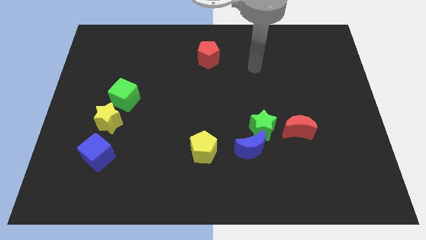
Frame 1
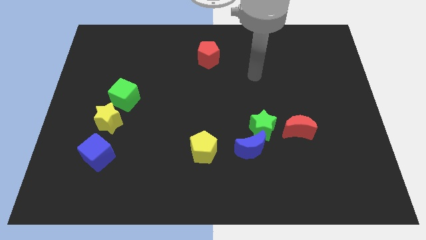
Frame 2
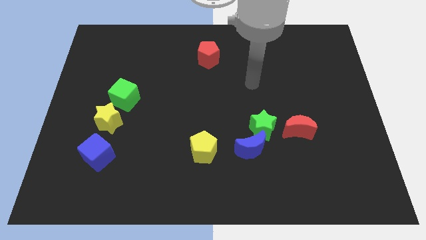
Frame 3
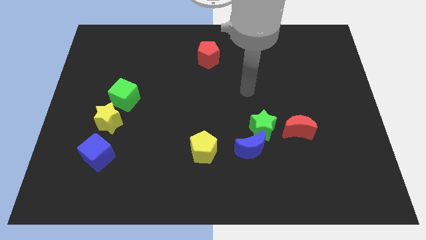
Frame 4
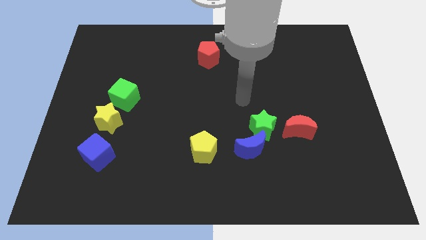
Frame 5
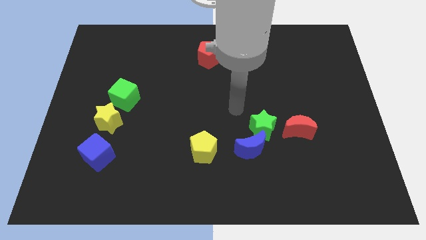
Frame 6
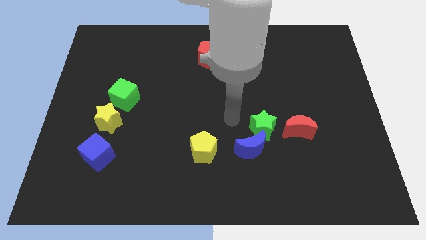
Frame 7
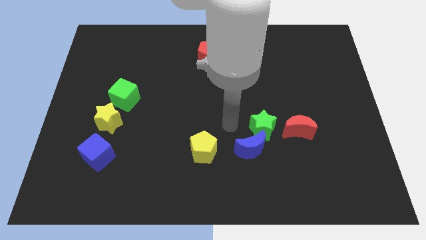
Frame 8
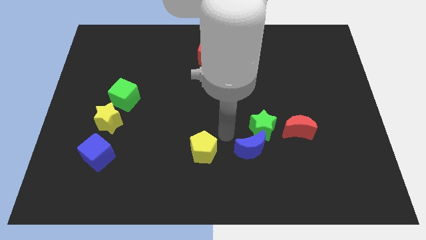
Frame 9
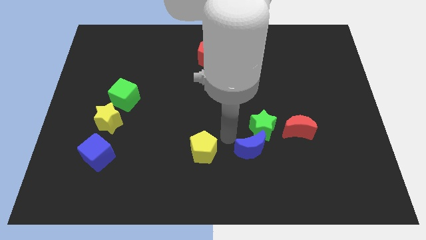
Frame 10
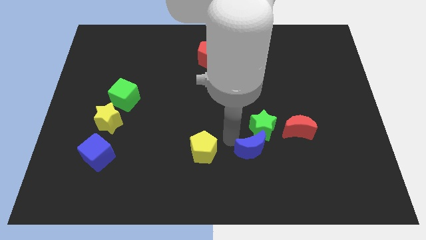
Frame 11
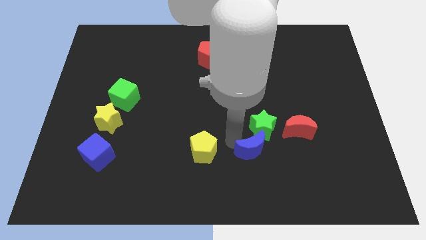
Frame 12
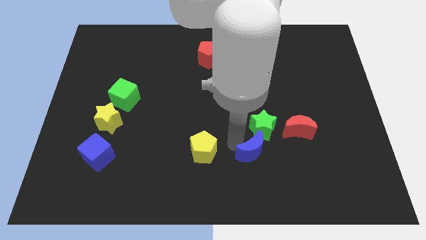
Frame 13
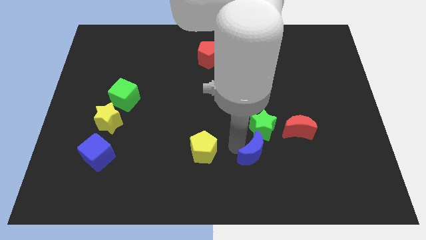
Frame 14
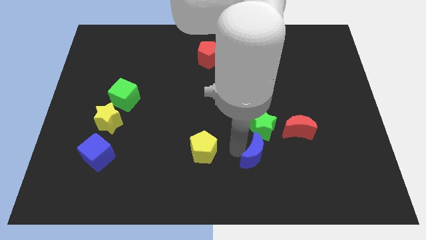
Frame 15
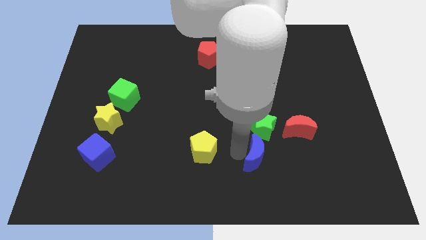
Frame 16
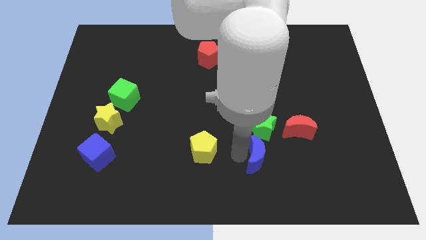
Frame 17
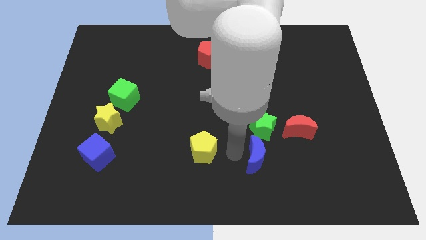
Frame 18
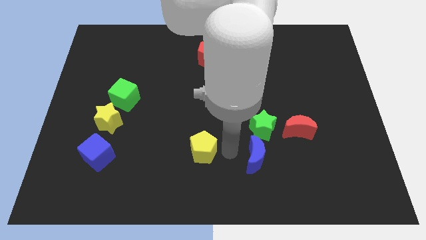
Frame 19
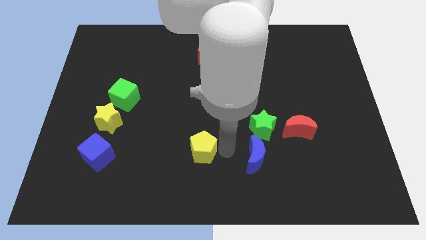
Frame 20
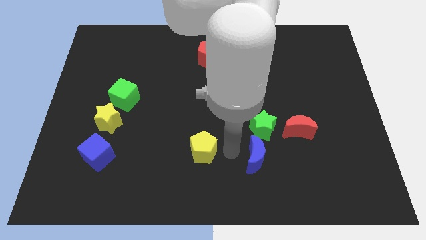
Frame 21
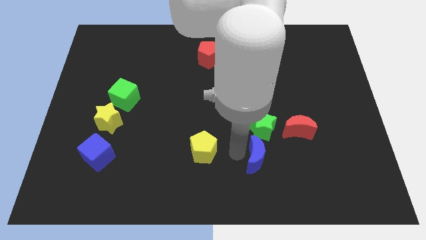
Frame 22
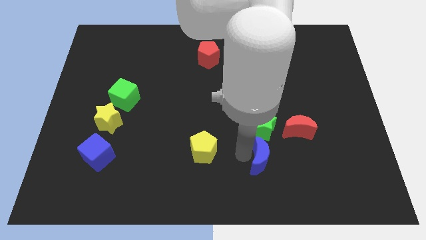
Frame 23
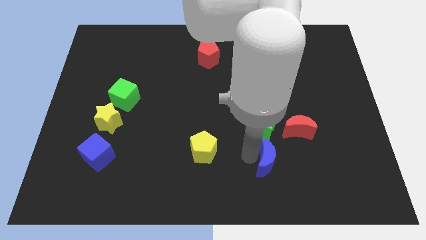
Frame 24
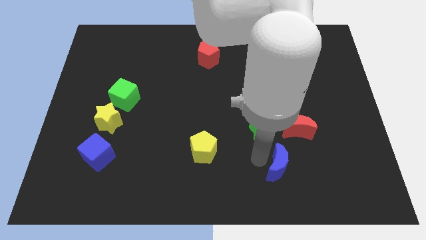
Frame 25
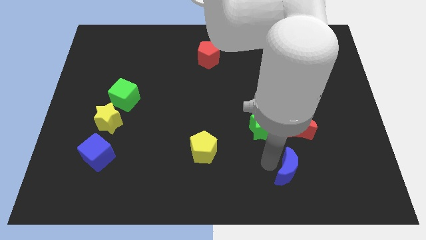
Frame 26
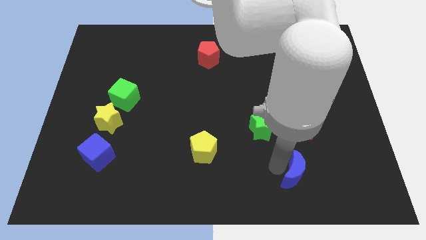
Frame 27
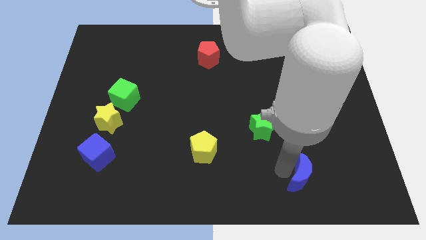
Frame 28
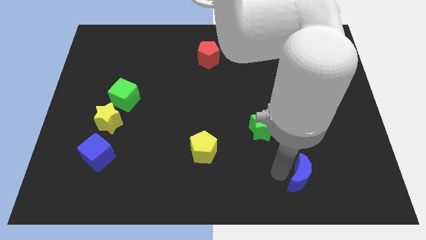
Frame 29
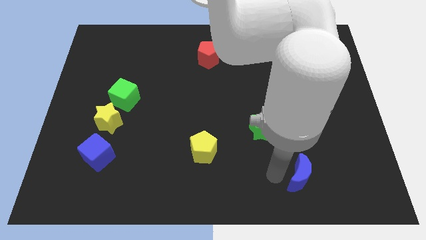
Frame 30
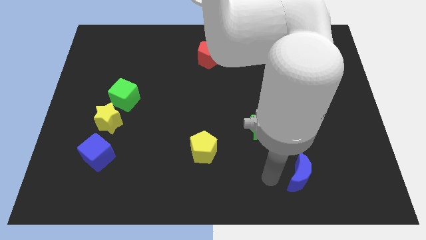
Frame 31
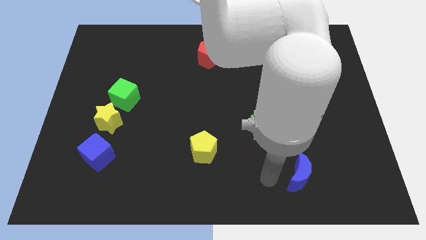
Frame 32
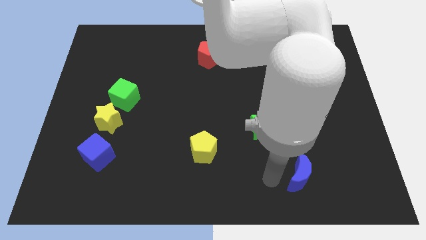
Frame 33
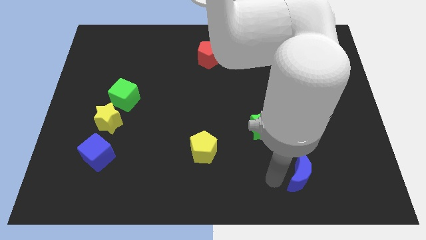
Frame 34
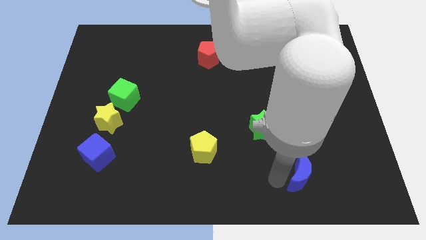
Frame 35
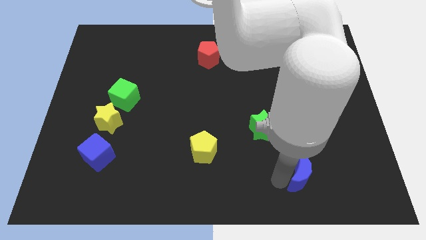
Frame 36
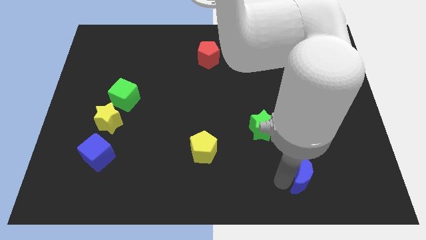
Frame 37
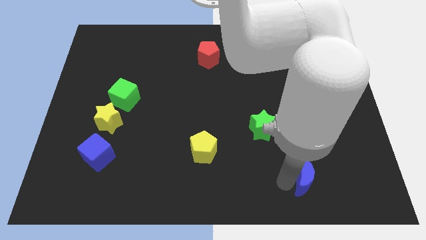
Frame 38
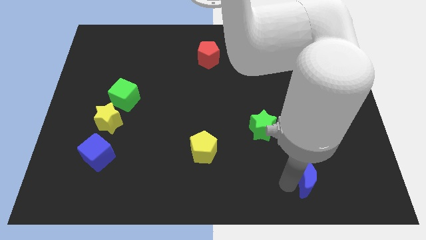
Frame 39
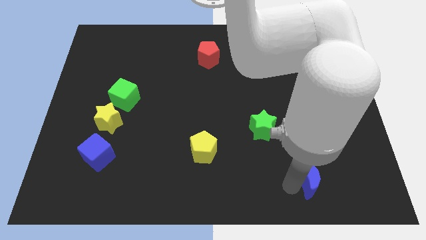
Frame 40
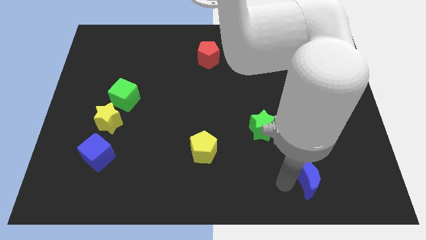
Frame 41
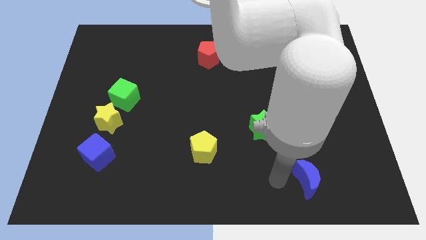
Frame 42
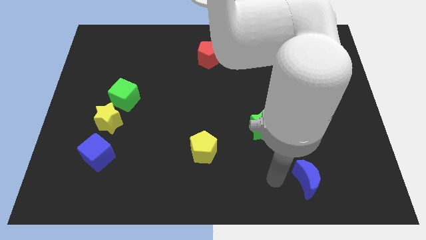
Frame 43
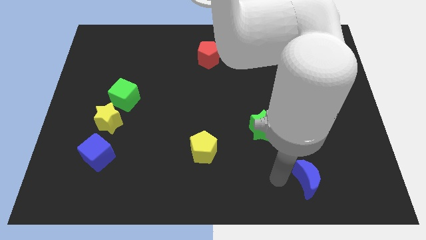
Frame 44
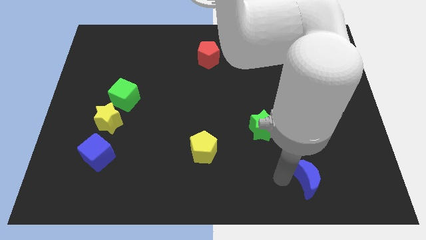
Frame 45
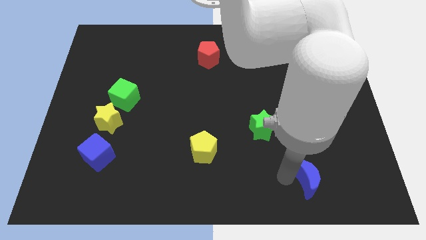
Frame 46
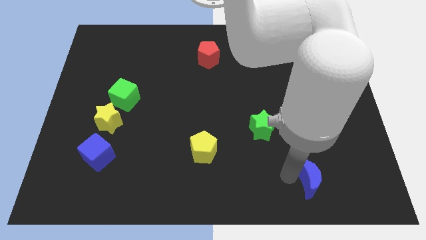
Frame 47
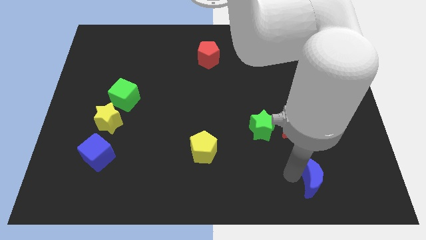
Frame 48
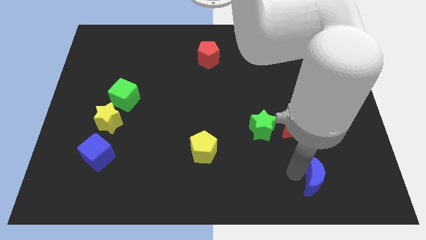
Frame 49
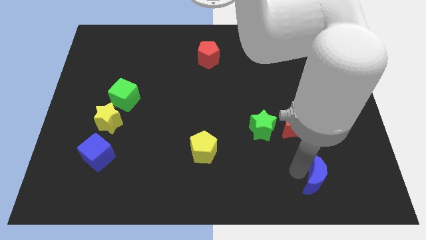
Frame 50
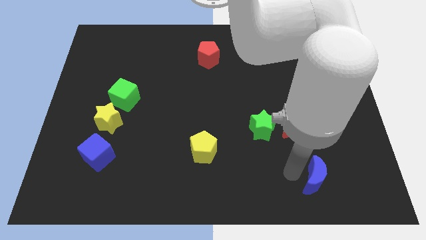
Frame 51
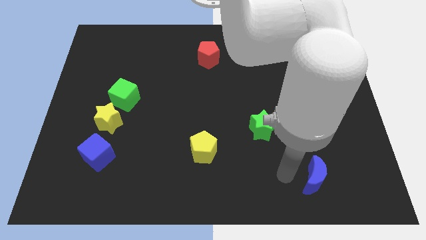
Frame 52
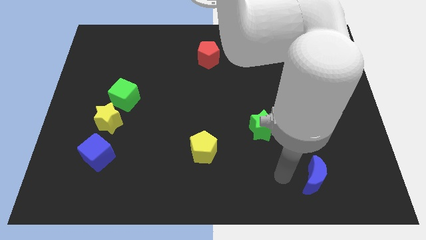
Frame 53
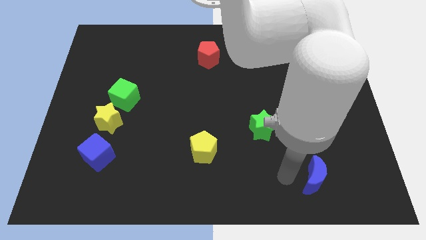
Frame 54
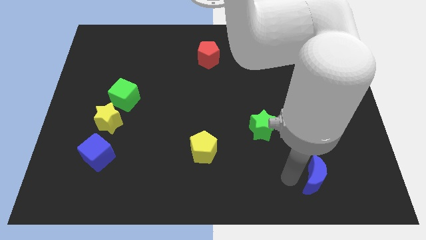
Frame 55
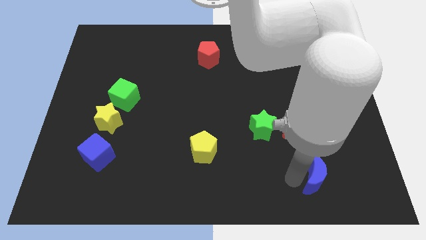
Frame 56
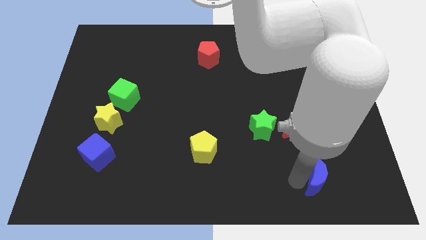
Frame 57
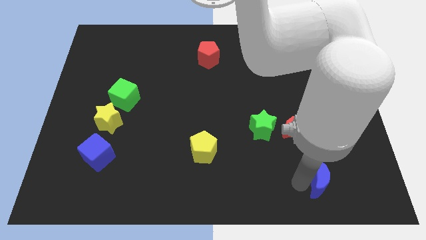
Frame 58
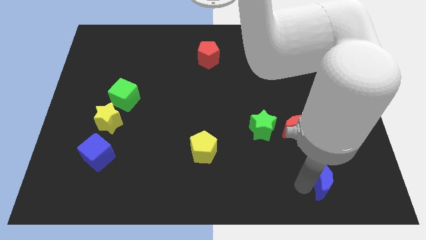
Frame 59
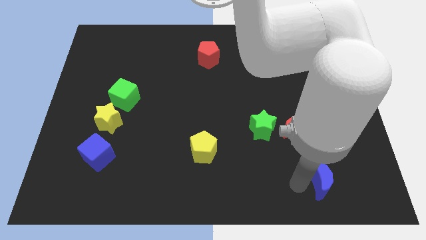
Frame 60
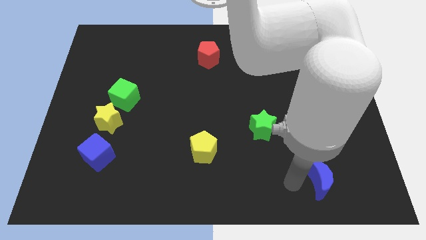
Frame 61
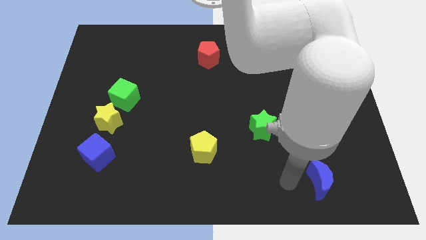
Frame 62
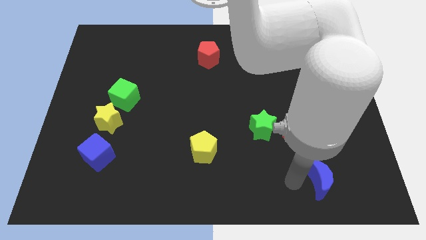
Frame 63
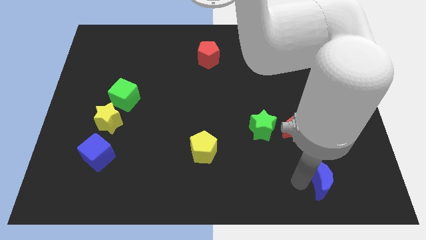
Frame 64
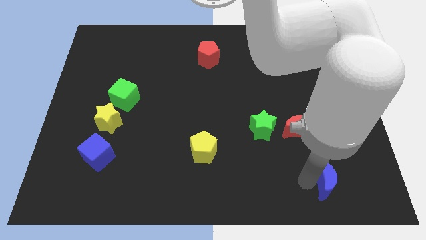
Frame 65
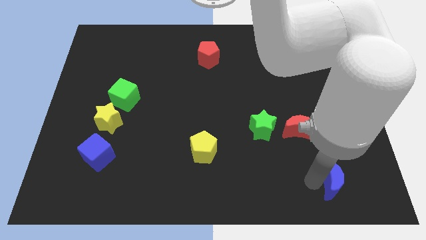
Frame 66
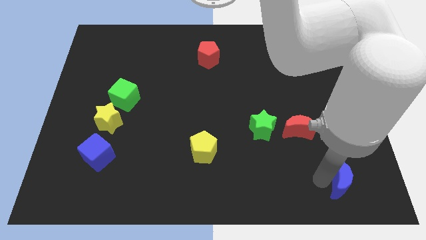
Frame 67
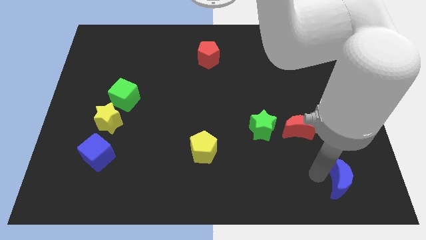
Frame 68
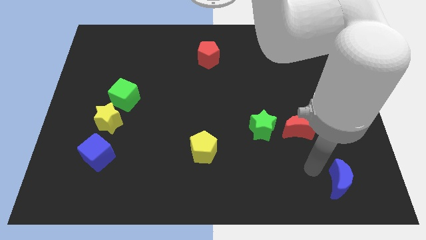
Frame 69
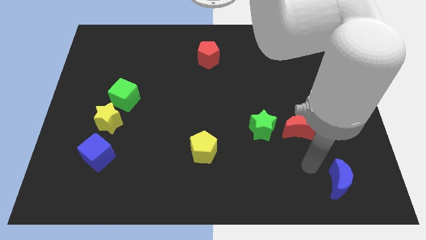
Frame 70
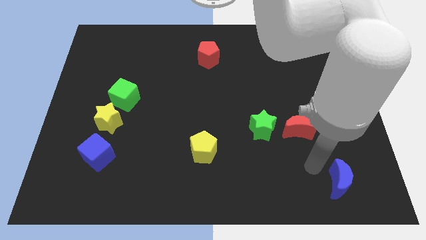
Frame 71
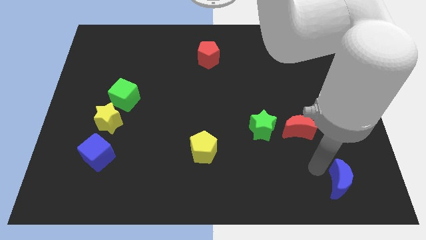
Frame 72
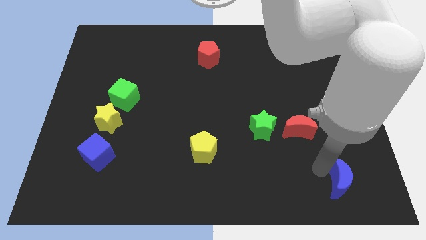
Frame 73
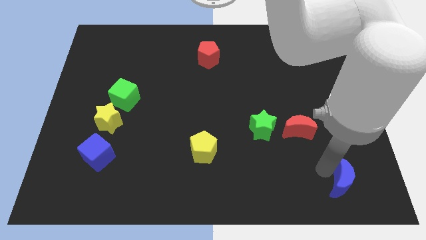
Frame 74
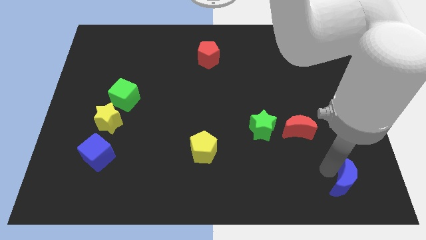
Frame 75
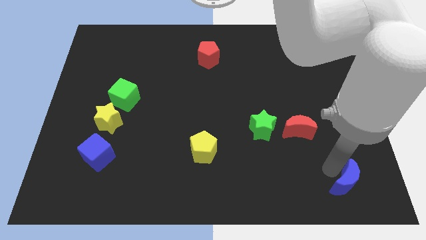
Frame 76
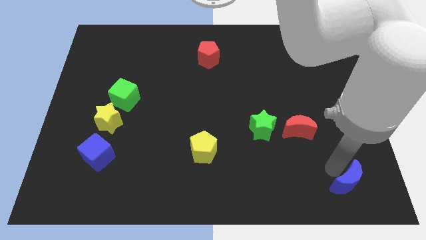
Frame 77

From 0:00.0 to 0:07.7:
move the blue moon to the lower right corner
